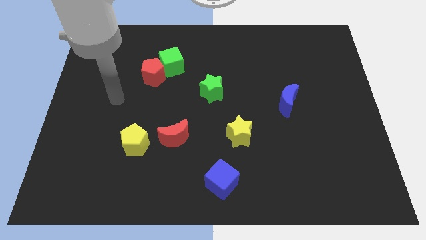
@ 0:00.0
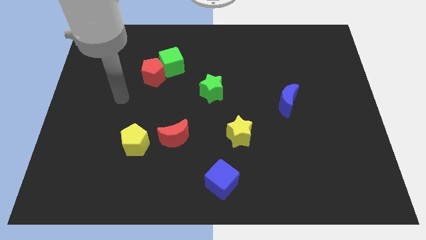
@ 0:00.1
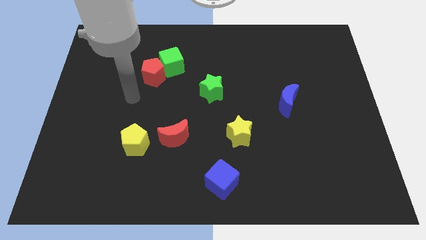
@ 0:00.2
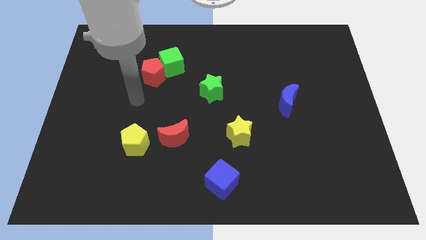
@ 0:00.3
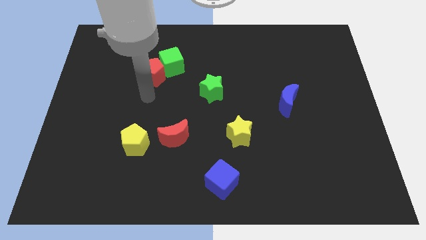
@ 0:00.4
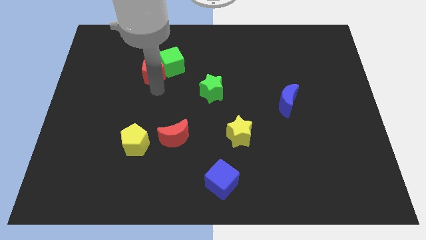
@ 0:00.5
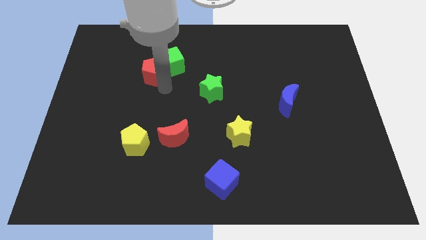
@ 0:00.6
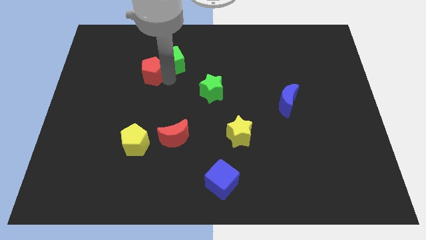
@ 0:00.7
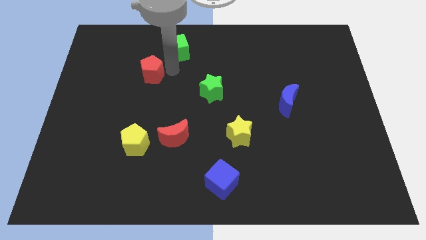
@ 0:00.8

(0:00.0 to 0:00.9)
move the red pentagon away from the green cube

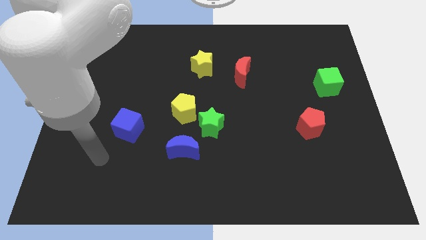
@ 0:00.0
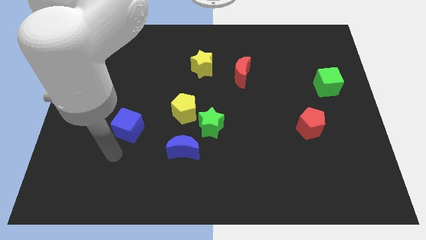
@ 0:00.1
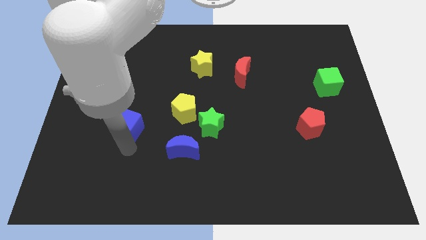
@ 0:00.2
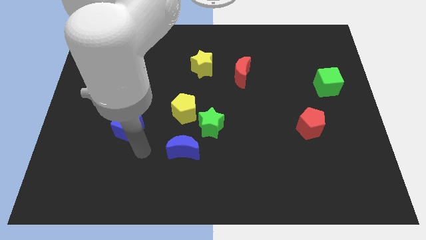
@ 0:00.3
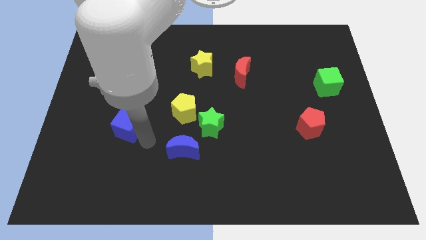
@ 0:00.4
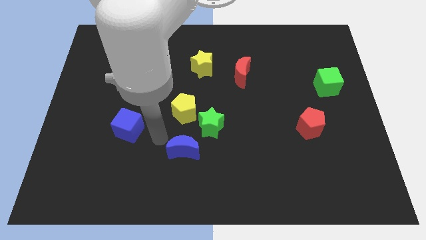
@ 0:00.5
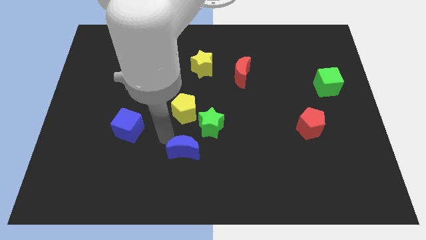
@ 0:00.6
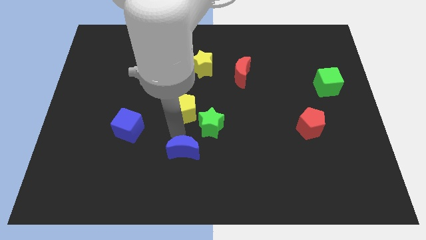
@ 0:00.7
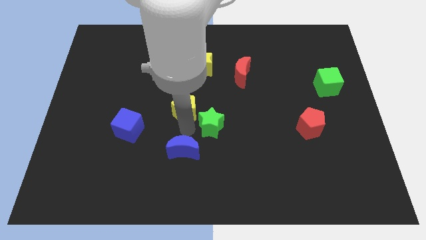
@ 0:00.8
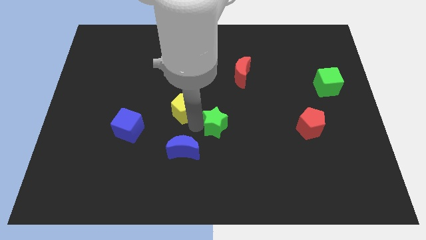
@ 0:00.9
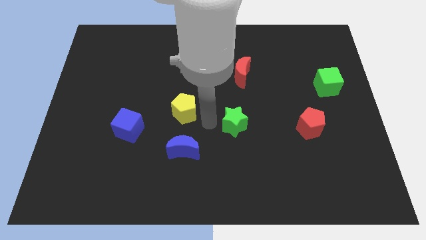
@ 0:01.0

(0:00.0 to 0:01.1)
pull the yellow pentagon apart from the green star

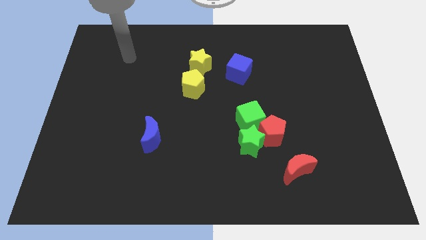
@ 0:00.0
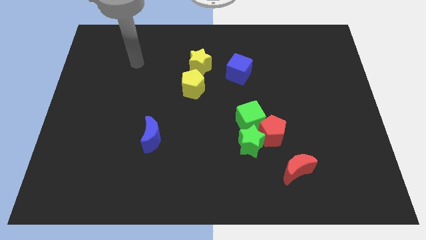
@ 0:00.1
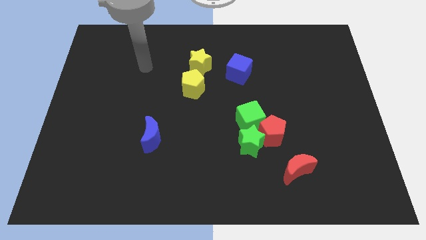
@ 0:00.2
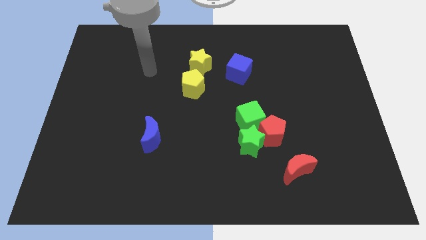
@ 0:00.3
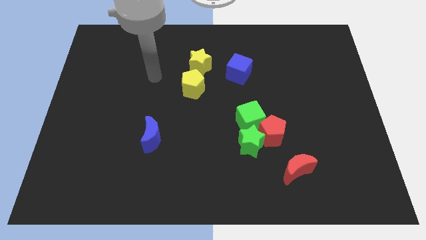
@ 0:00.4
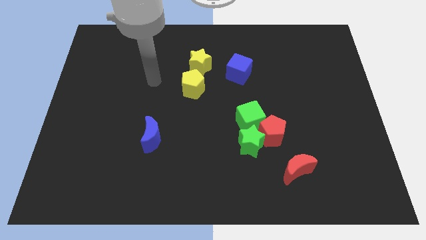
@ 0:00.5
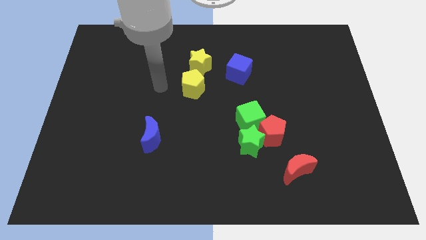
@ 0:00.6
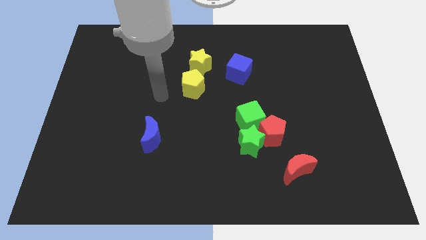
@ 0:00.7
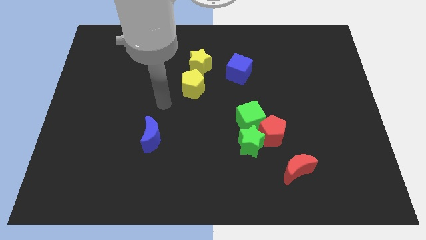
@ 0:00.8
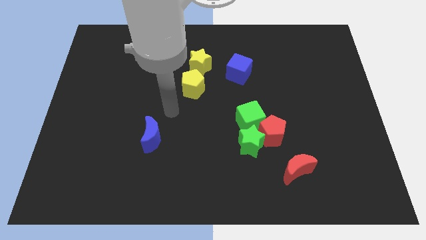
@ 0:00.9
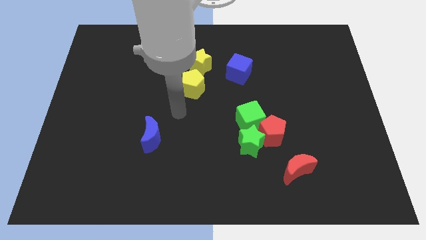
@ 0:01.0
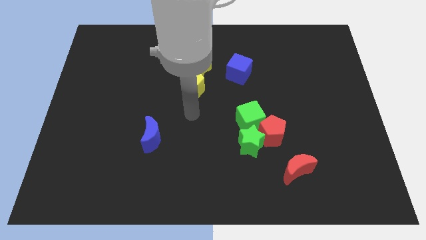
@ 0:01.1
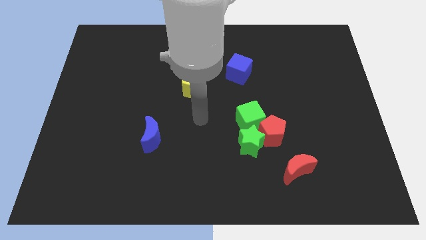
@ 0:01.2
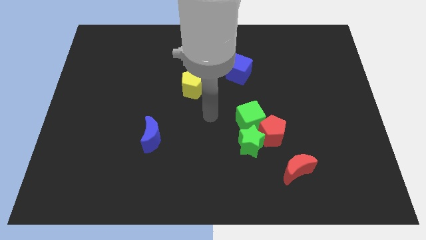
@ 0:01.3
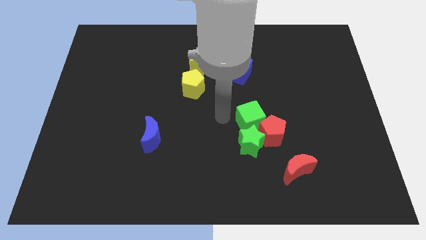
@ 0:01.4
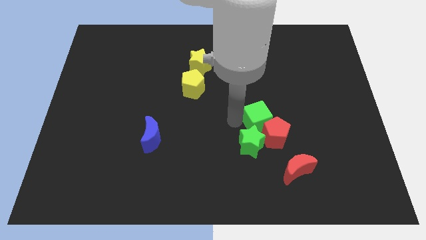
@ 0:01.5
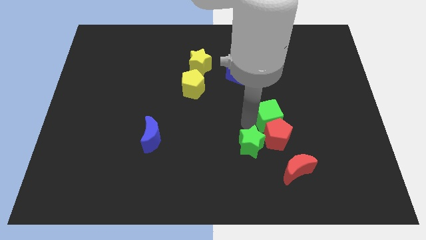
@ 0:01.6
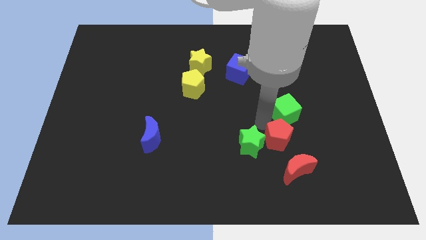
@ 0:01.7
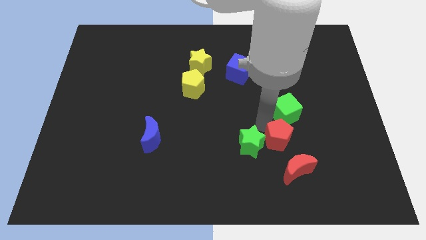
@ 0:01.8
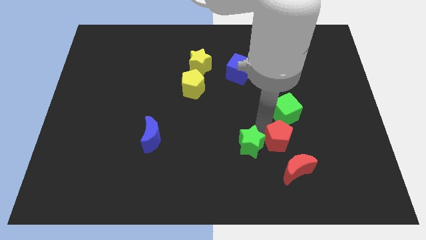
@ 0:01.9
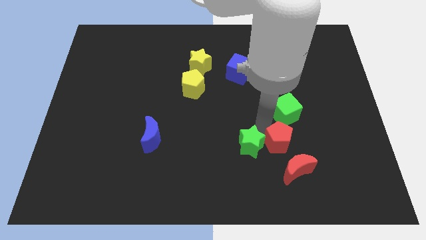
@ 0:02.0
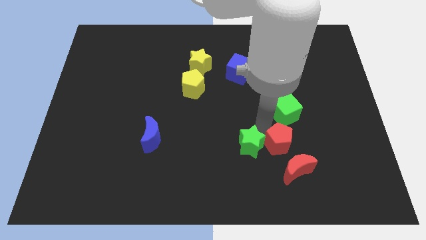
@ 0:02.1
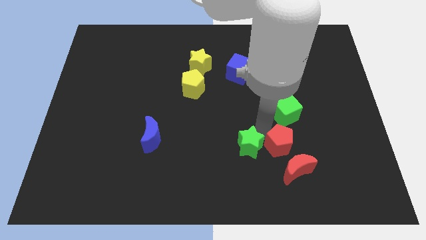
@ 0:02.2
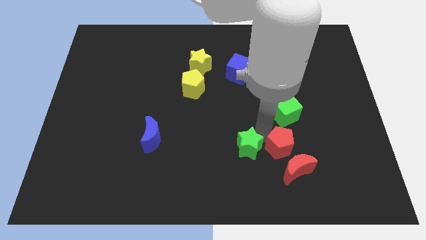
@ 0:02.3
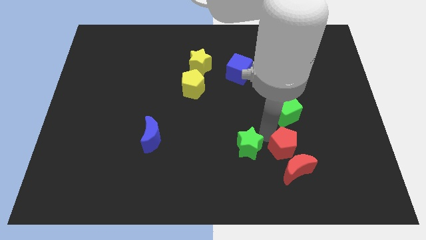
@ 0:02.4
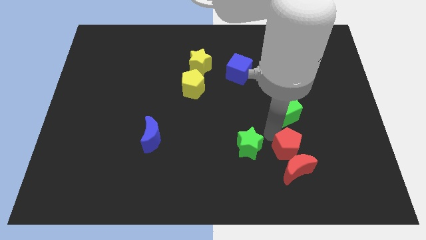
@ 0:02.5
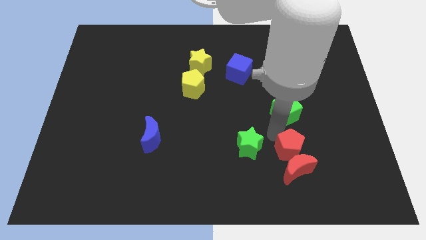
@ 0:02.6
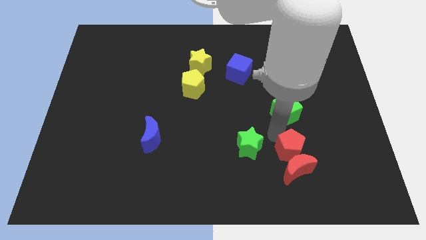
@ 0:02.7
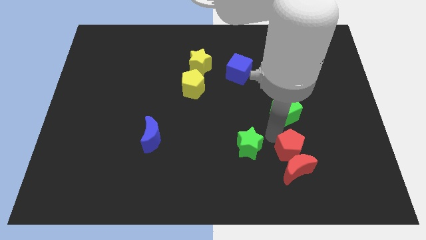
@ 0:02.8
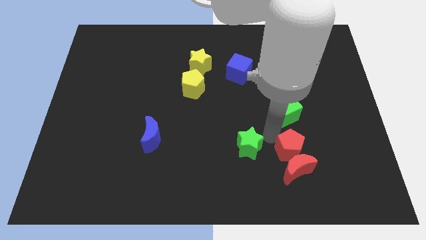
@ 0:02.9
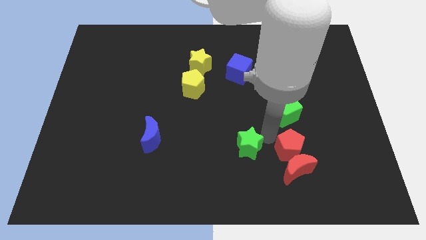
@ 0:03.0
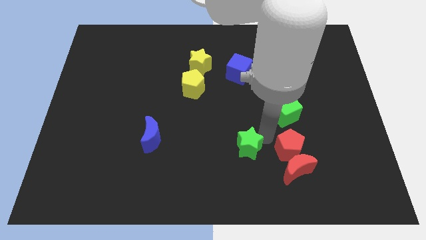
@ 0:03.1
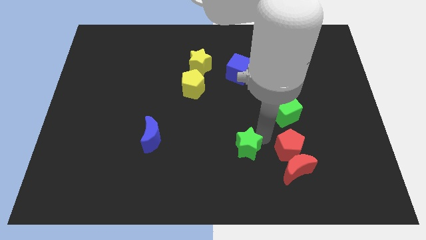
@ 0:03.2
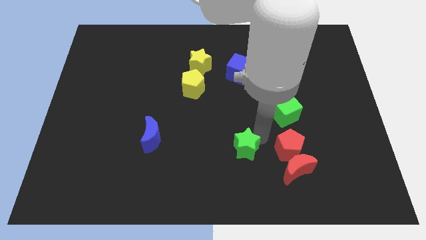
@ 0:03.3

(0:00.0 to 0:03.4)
move the green star away from the red pentagon and green cube

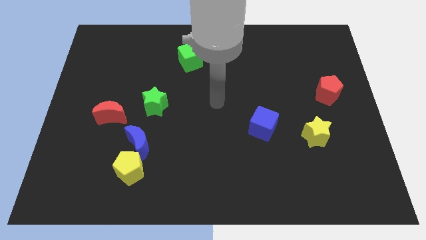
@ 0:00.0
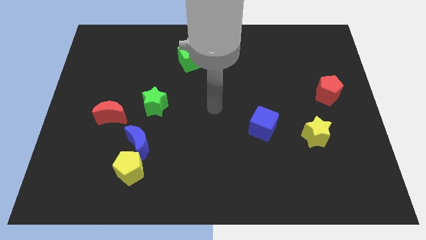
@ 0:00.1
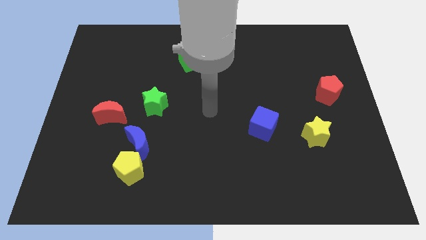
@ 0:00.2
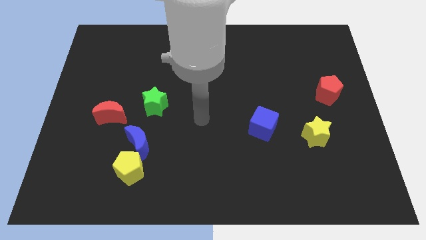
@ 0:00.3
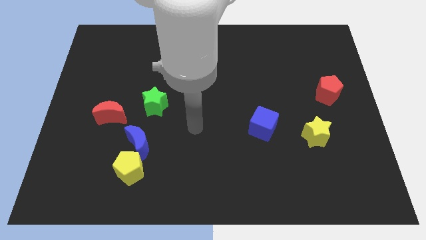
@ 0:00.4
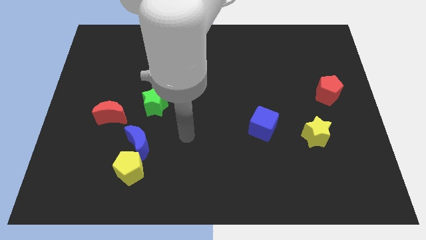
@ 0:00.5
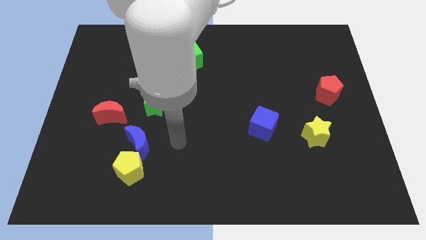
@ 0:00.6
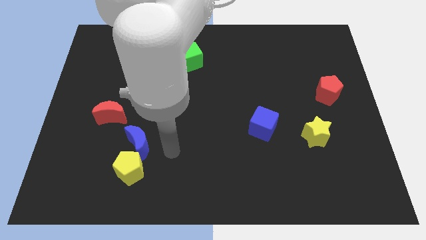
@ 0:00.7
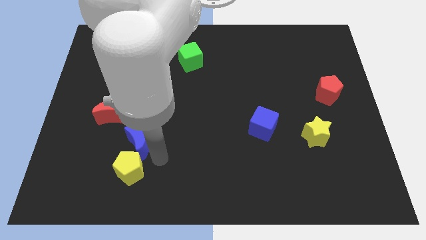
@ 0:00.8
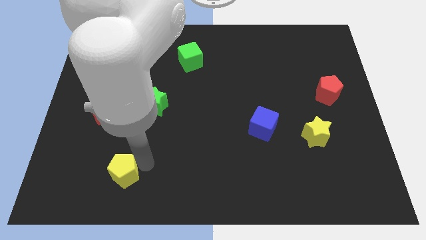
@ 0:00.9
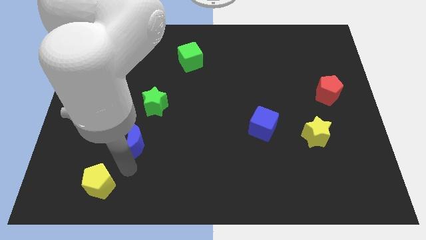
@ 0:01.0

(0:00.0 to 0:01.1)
pull the blue moon apart from the yellow pentagon

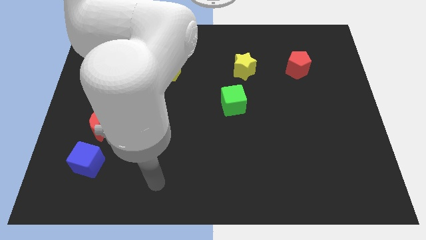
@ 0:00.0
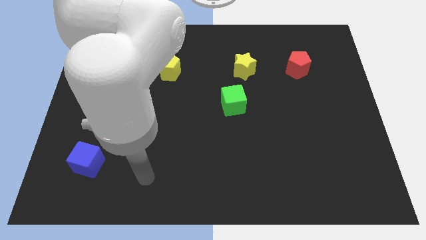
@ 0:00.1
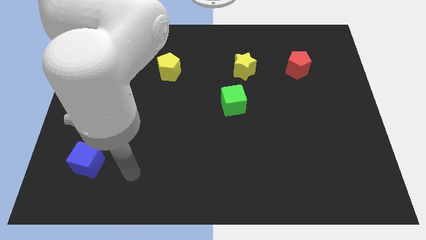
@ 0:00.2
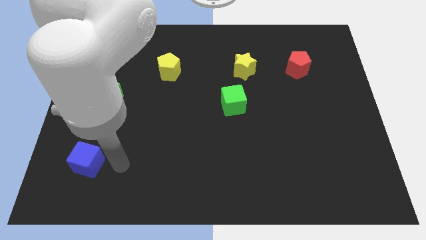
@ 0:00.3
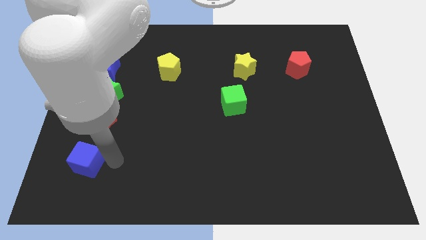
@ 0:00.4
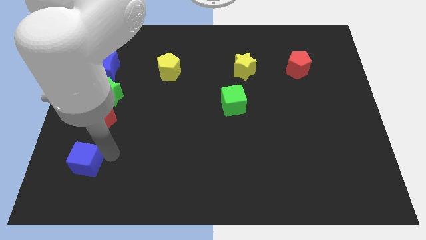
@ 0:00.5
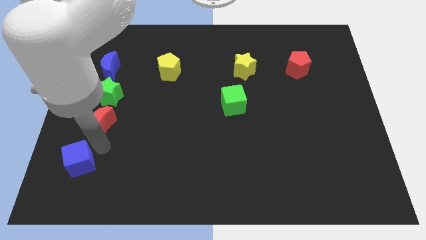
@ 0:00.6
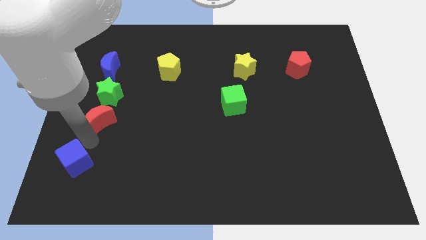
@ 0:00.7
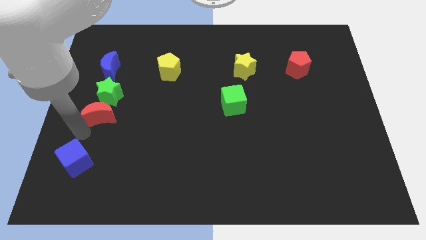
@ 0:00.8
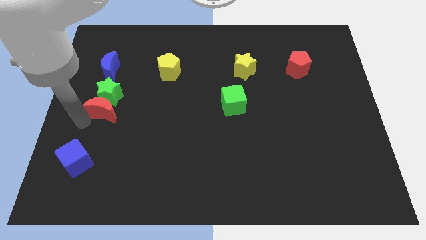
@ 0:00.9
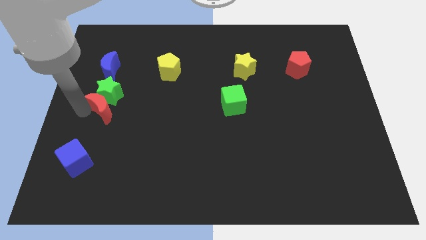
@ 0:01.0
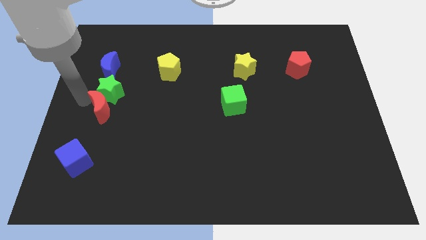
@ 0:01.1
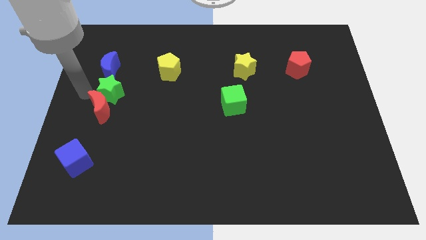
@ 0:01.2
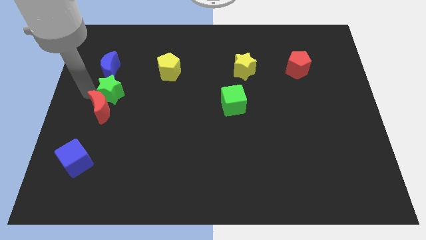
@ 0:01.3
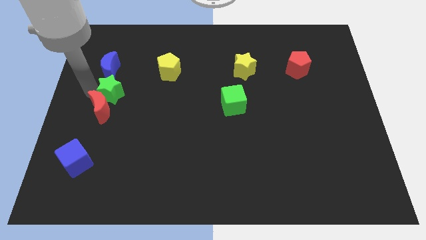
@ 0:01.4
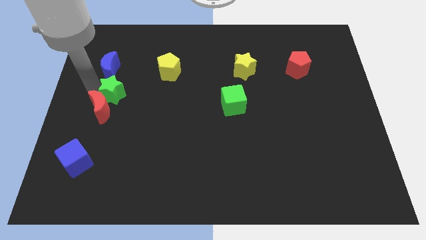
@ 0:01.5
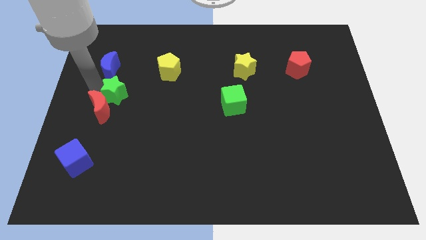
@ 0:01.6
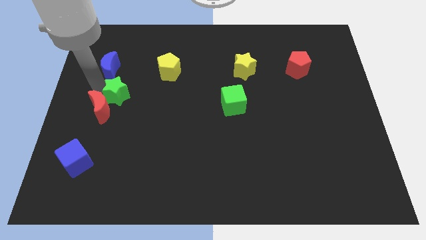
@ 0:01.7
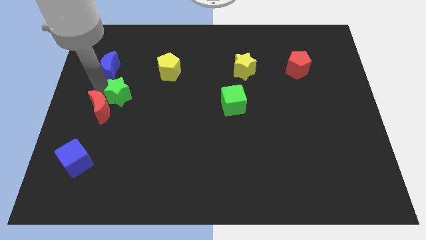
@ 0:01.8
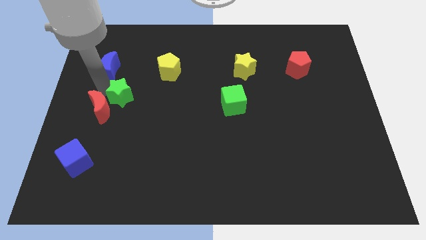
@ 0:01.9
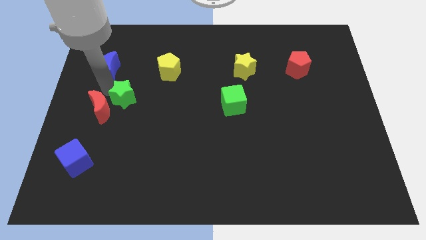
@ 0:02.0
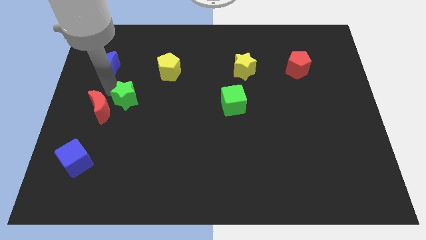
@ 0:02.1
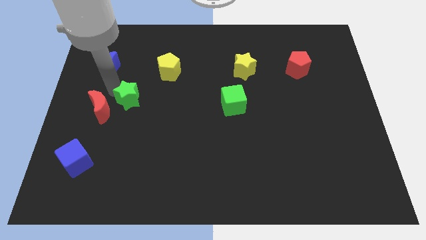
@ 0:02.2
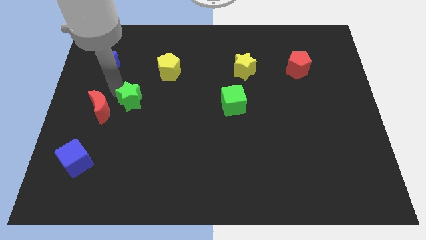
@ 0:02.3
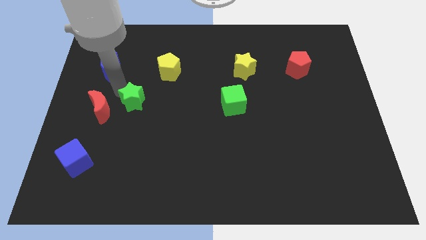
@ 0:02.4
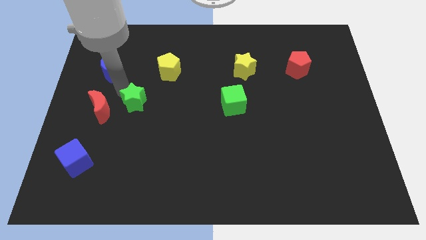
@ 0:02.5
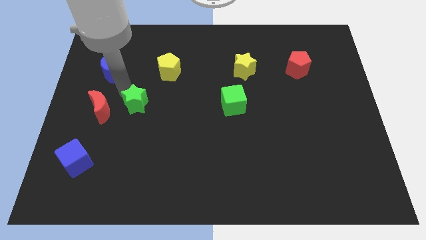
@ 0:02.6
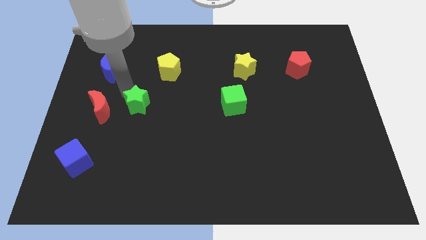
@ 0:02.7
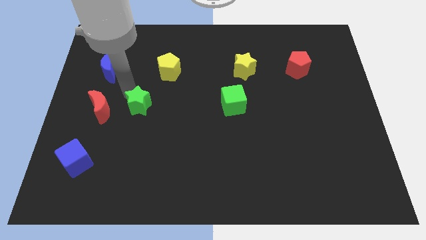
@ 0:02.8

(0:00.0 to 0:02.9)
pull the green star apart from the red moon and blue moon
